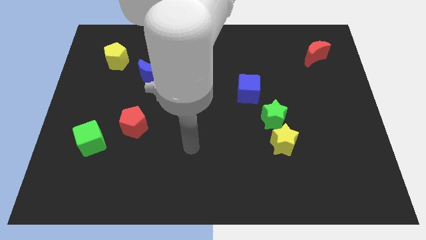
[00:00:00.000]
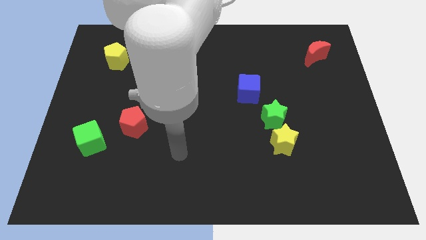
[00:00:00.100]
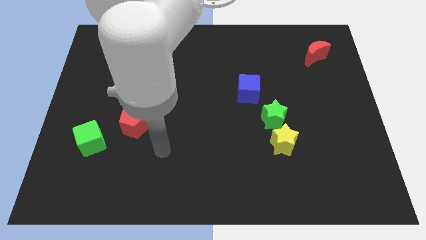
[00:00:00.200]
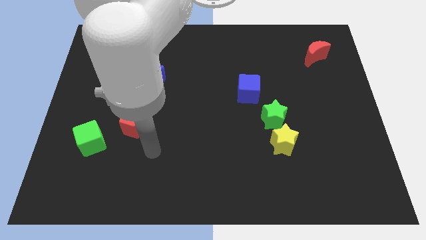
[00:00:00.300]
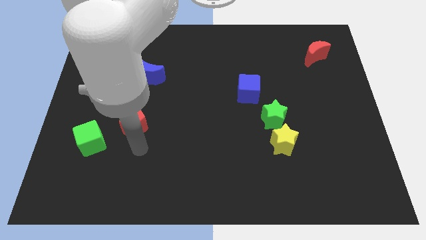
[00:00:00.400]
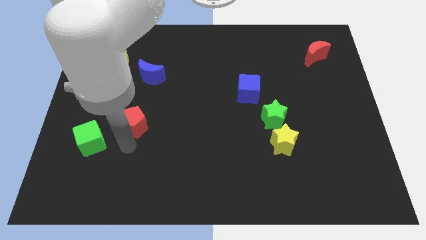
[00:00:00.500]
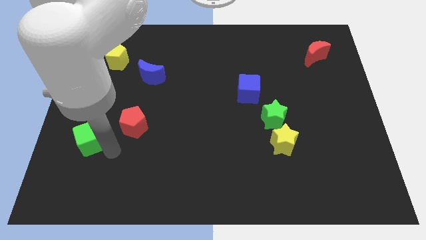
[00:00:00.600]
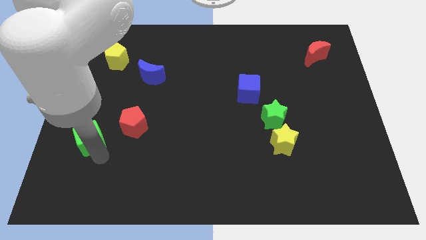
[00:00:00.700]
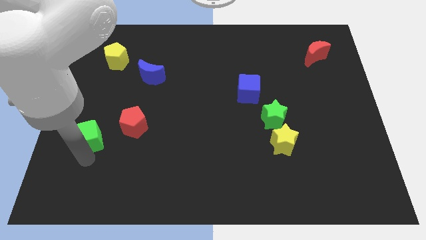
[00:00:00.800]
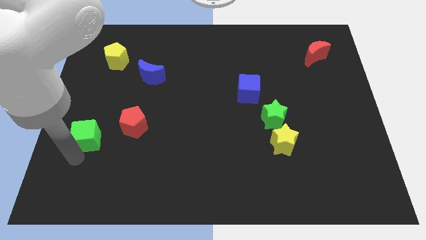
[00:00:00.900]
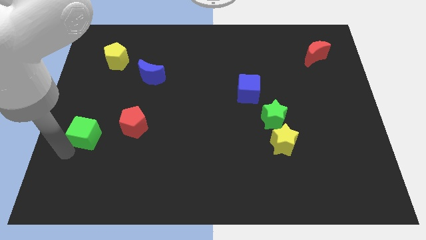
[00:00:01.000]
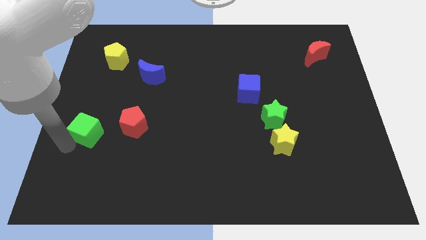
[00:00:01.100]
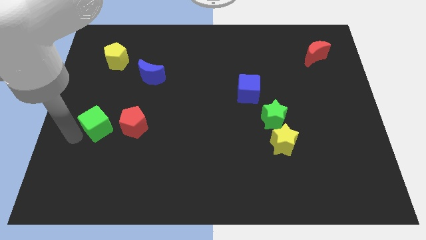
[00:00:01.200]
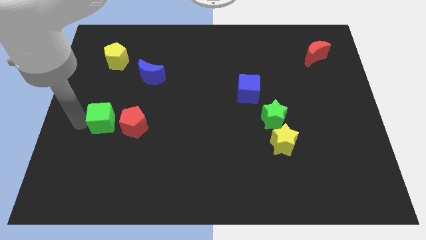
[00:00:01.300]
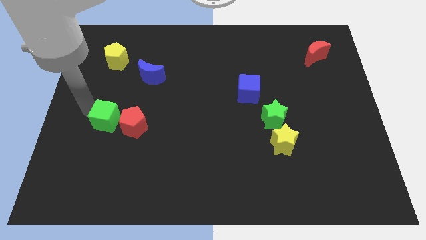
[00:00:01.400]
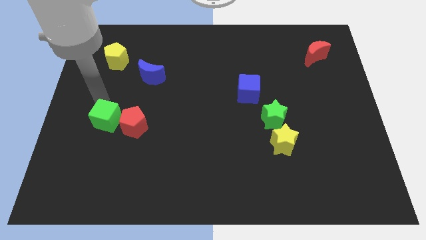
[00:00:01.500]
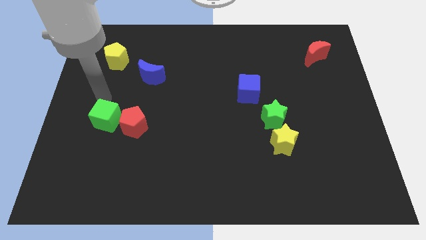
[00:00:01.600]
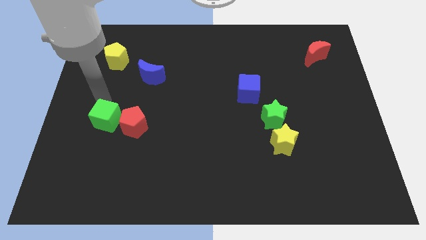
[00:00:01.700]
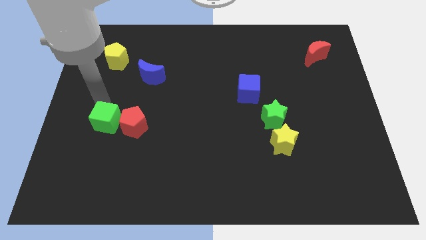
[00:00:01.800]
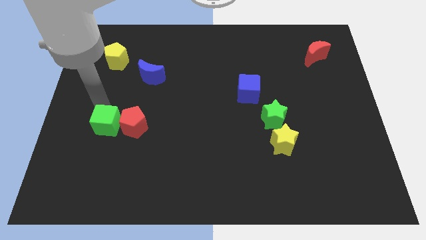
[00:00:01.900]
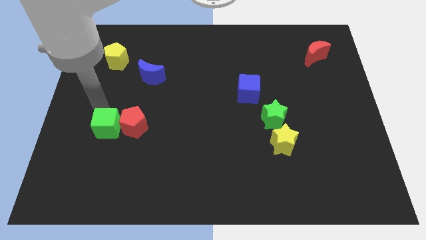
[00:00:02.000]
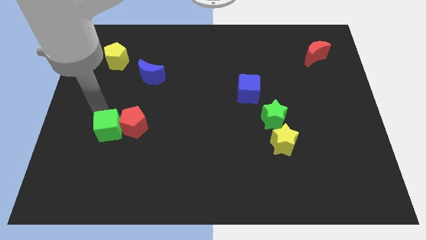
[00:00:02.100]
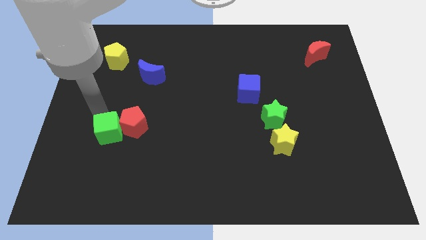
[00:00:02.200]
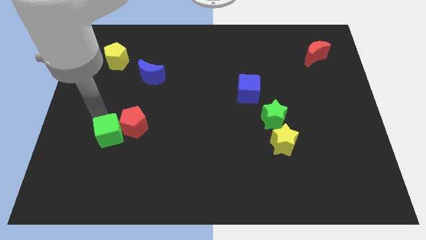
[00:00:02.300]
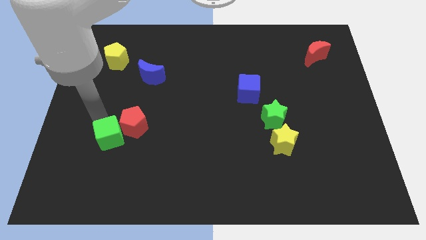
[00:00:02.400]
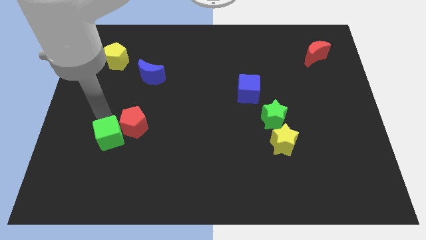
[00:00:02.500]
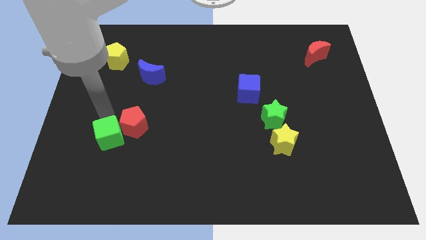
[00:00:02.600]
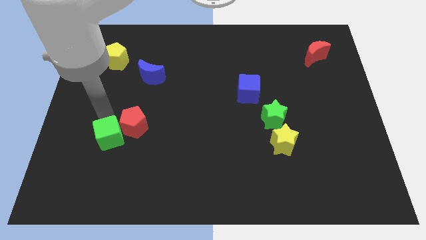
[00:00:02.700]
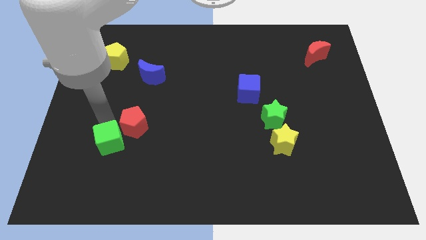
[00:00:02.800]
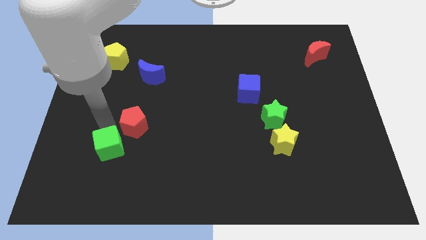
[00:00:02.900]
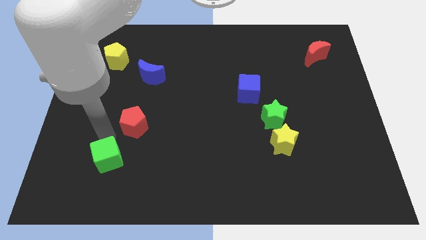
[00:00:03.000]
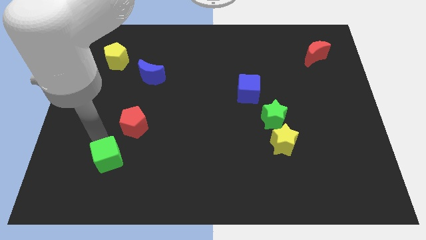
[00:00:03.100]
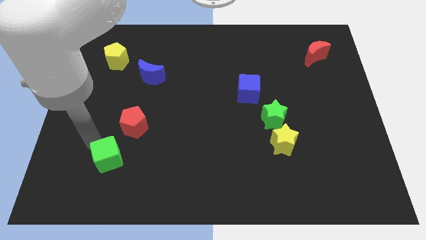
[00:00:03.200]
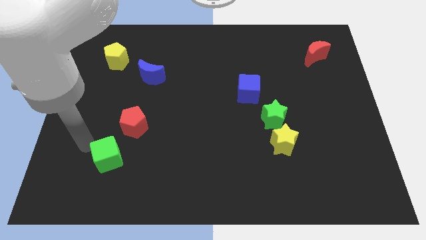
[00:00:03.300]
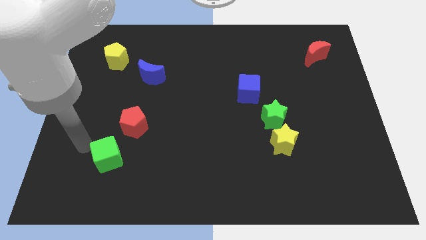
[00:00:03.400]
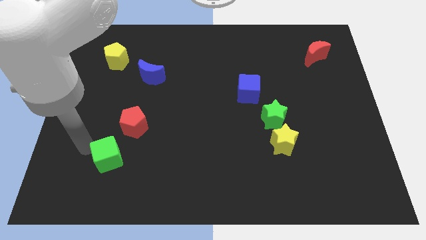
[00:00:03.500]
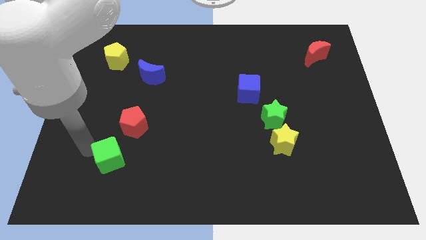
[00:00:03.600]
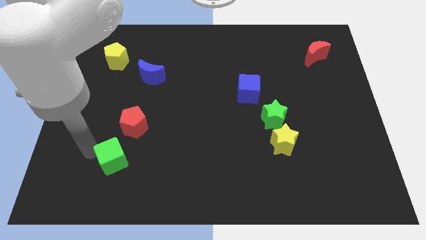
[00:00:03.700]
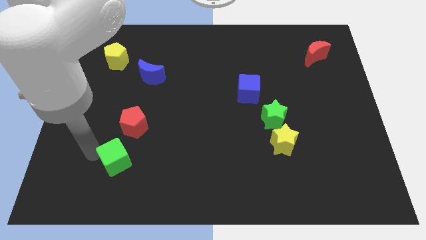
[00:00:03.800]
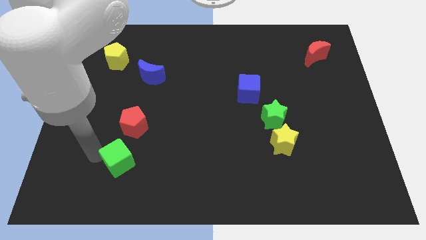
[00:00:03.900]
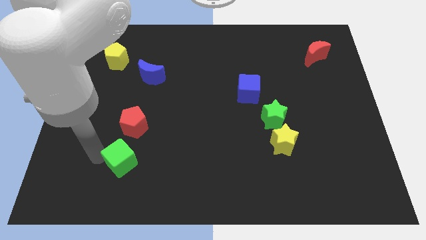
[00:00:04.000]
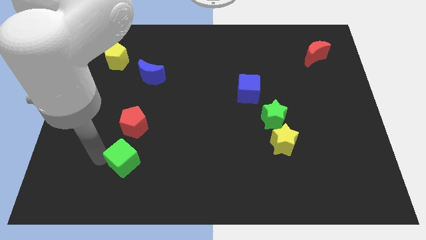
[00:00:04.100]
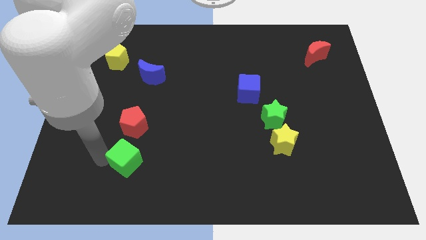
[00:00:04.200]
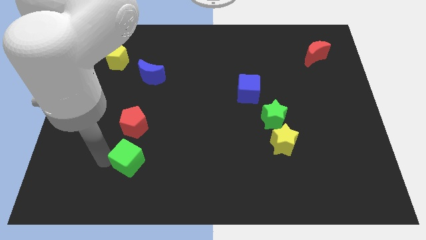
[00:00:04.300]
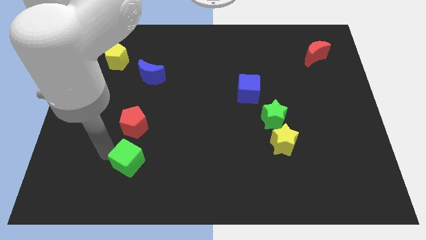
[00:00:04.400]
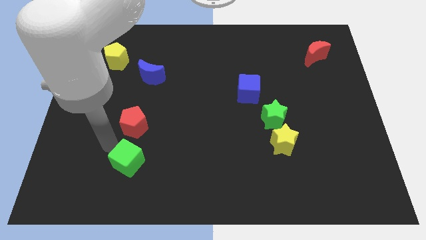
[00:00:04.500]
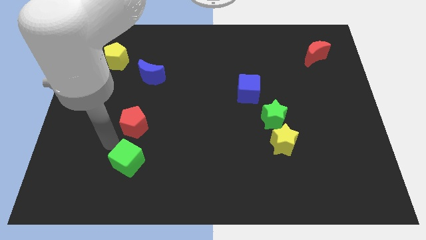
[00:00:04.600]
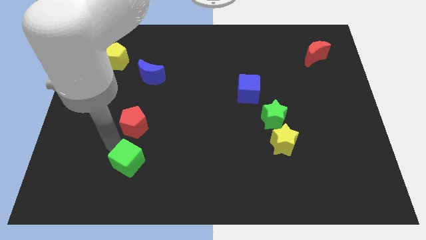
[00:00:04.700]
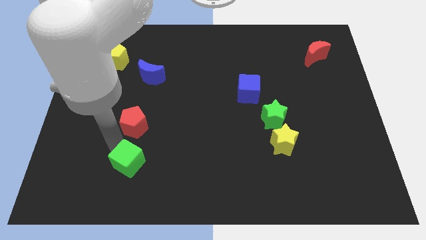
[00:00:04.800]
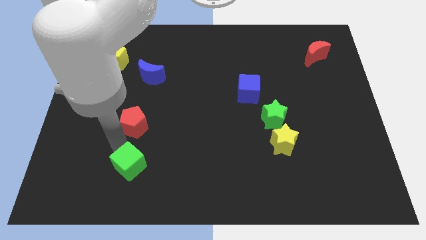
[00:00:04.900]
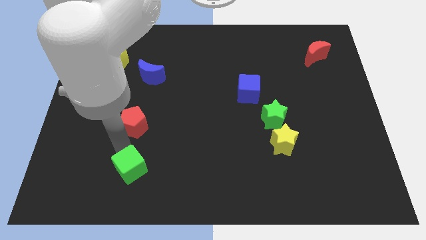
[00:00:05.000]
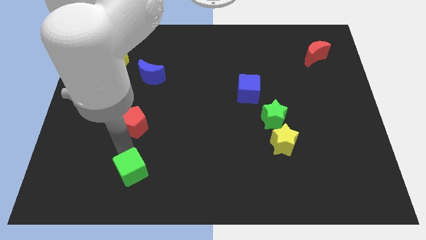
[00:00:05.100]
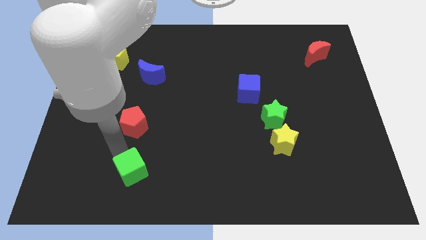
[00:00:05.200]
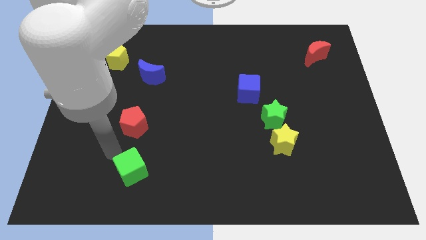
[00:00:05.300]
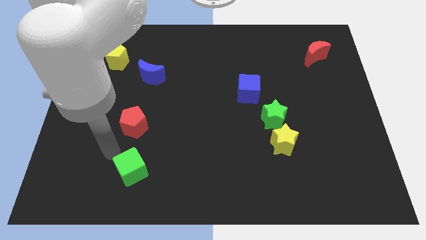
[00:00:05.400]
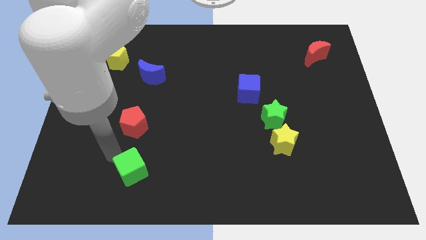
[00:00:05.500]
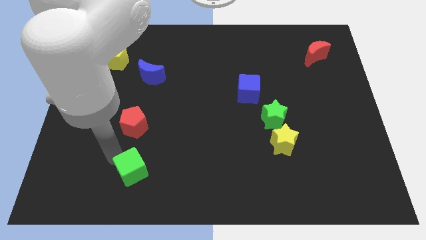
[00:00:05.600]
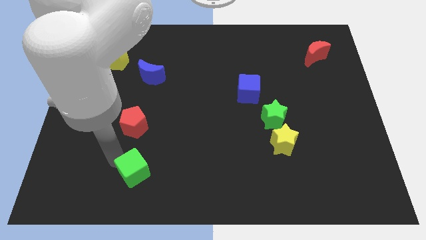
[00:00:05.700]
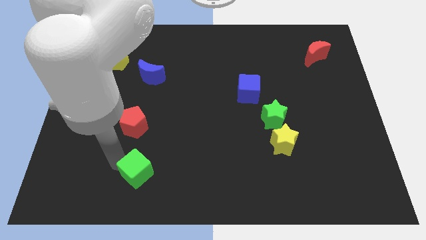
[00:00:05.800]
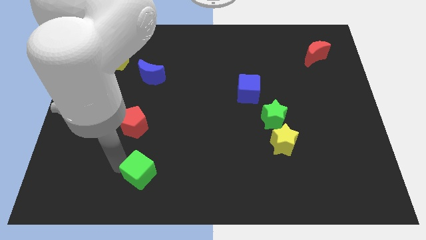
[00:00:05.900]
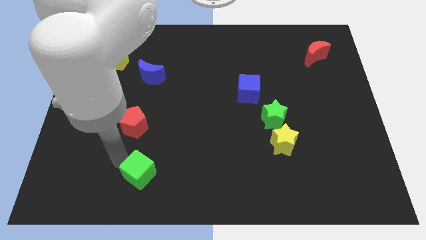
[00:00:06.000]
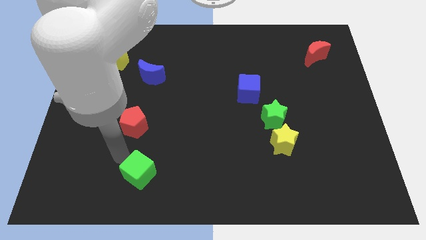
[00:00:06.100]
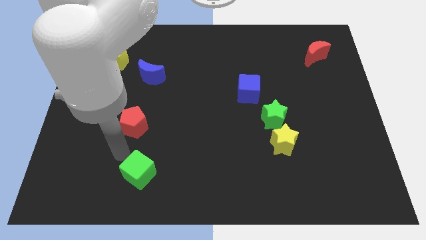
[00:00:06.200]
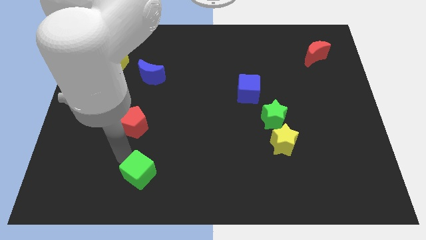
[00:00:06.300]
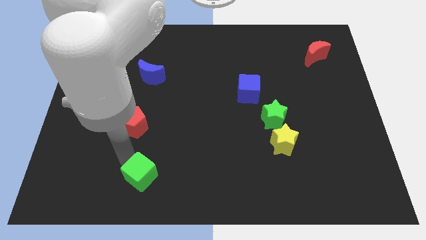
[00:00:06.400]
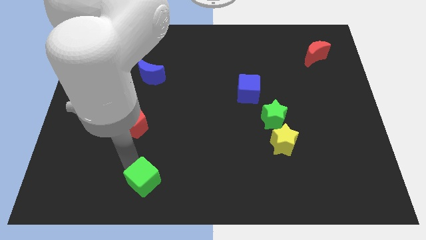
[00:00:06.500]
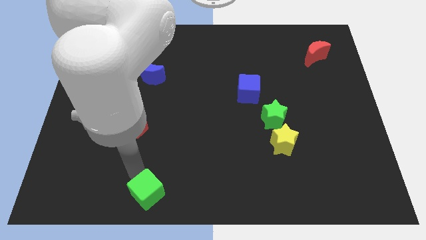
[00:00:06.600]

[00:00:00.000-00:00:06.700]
move the green cube to the bottom side
